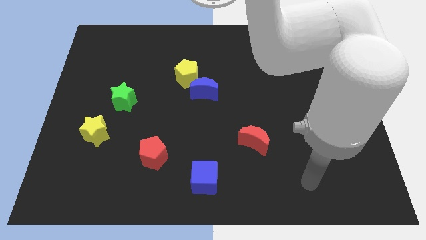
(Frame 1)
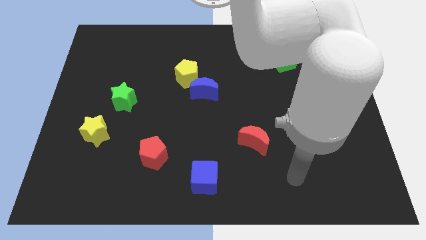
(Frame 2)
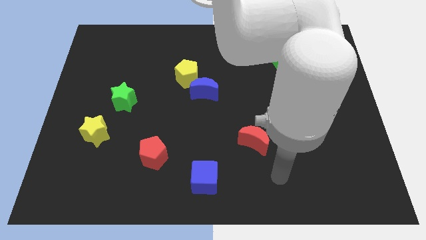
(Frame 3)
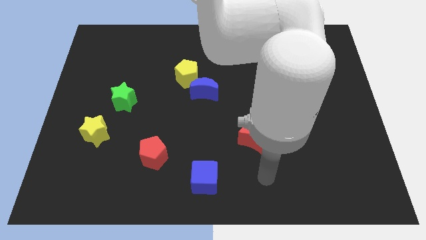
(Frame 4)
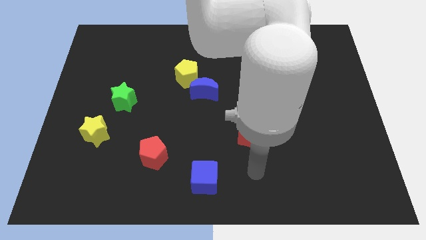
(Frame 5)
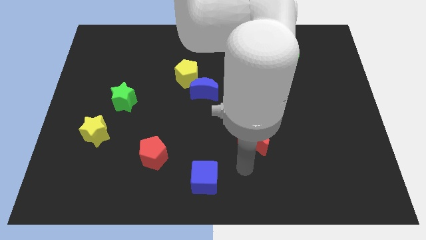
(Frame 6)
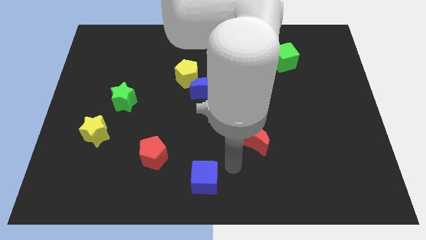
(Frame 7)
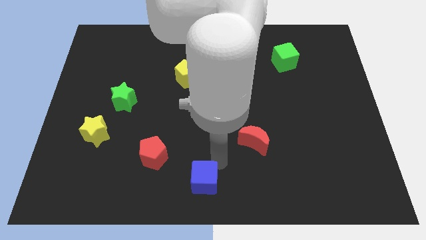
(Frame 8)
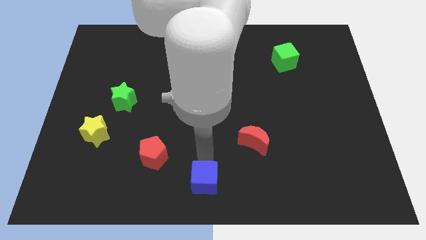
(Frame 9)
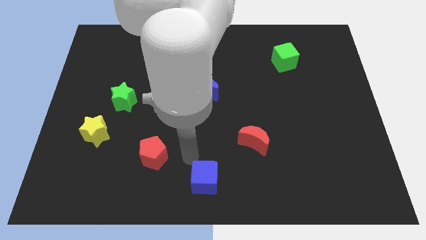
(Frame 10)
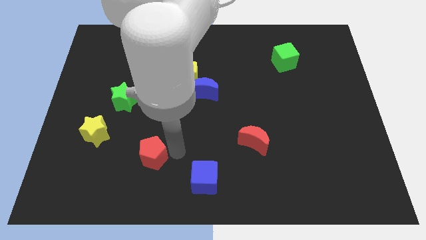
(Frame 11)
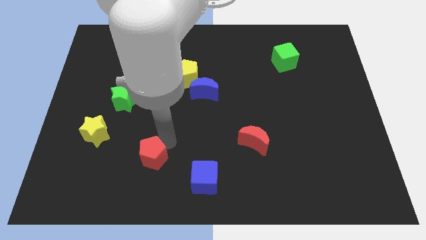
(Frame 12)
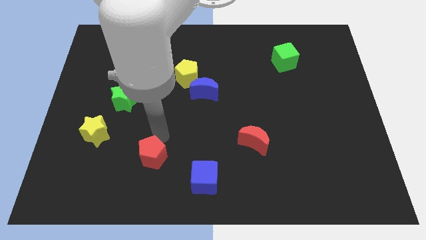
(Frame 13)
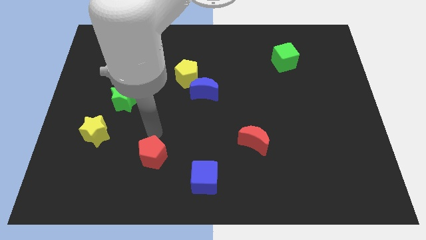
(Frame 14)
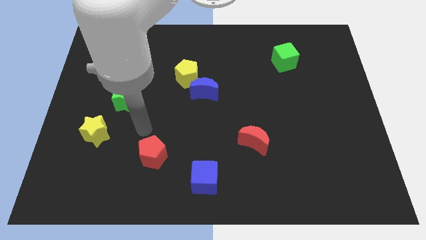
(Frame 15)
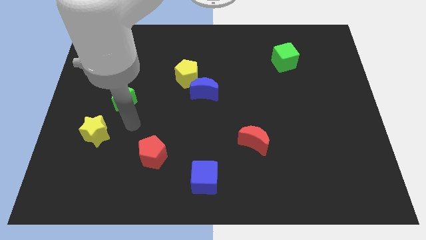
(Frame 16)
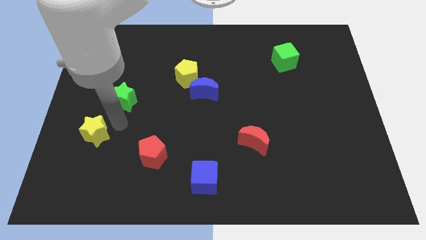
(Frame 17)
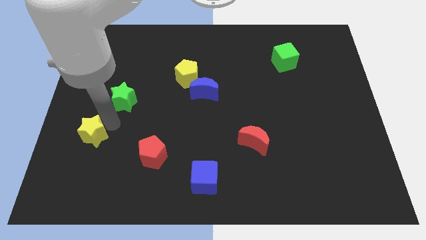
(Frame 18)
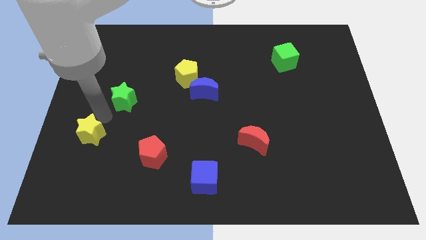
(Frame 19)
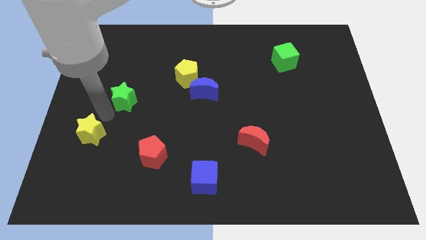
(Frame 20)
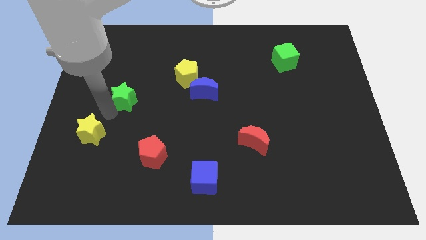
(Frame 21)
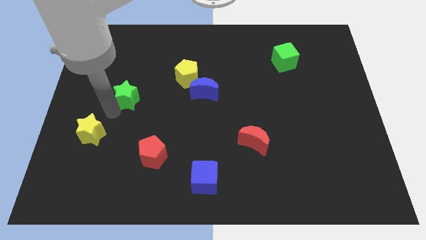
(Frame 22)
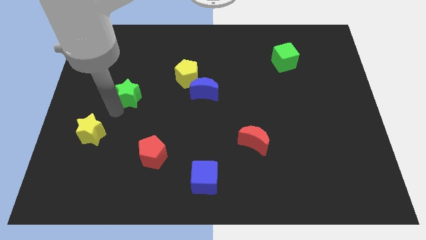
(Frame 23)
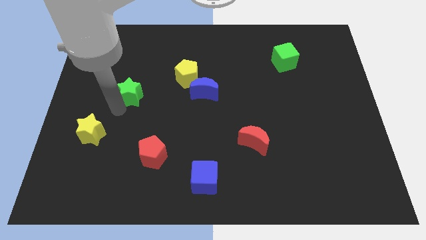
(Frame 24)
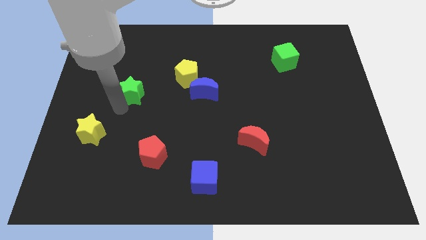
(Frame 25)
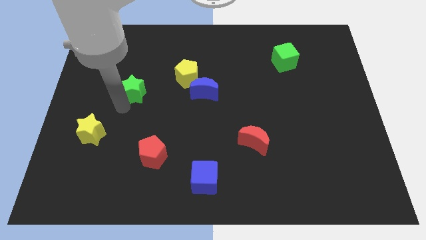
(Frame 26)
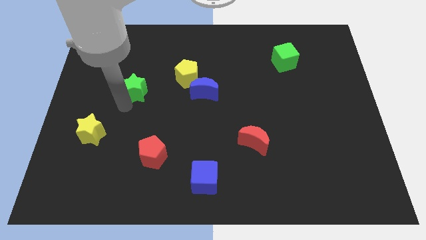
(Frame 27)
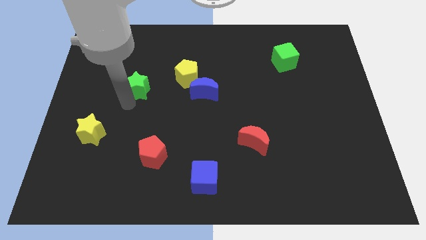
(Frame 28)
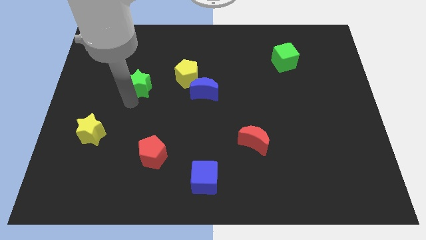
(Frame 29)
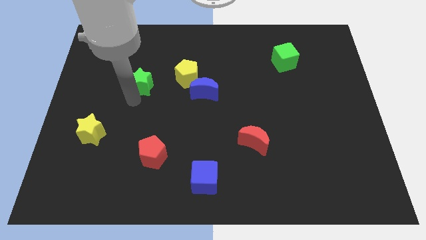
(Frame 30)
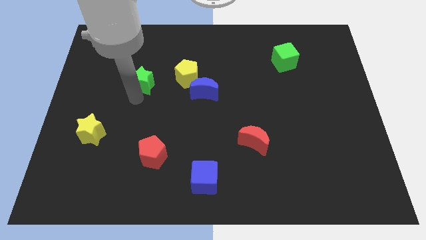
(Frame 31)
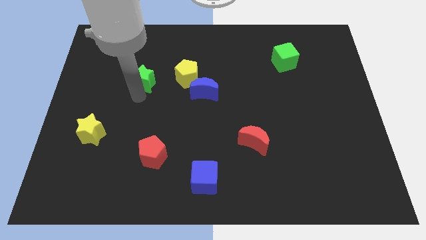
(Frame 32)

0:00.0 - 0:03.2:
push the green star diagonally up and to the right somewhat

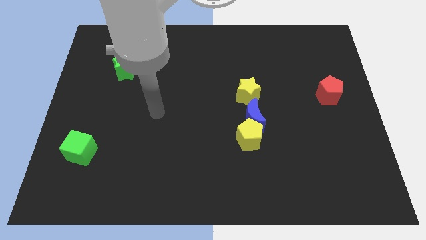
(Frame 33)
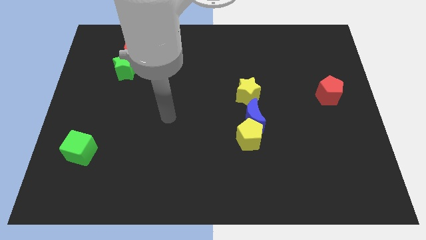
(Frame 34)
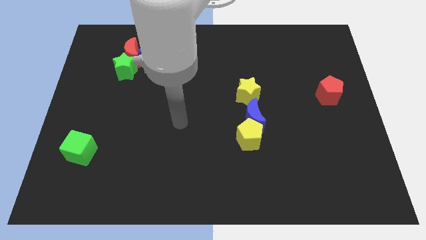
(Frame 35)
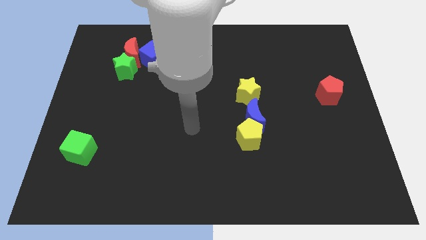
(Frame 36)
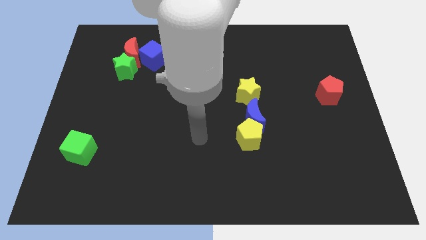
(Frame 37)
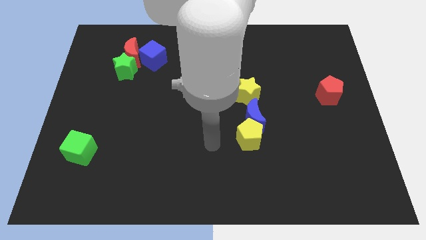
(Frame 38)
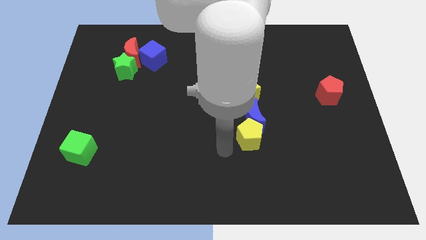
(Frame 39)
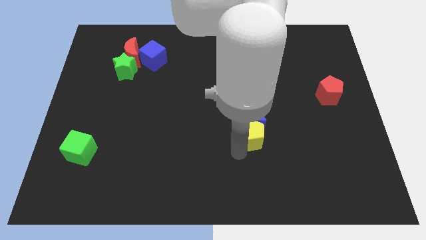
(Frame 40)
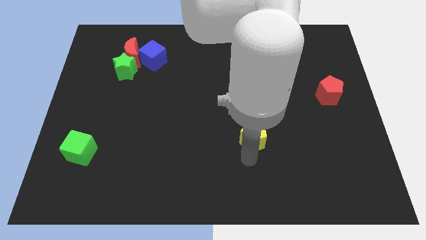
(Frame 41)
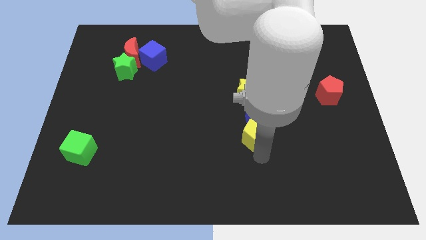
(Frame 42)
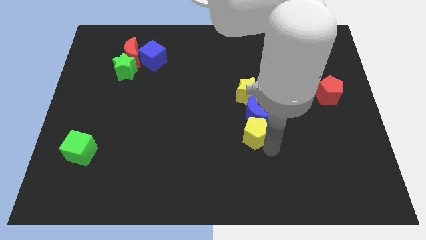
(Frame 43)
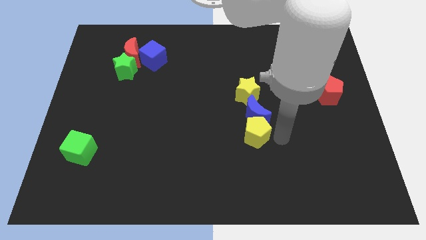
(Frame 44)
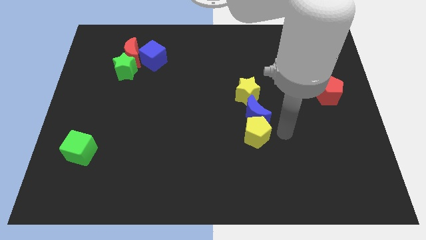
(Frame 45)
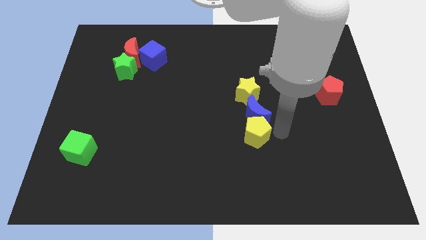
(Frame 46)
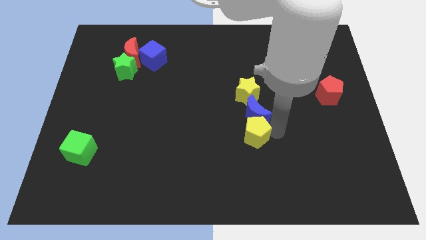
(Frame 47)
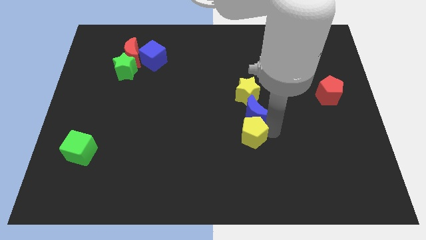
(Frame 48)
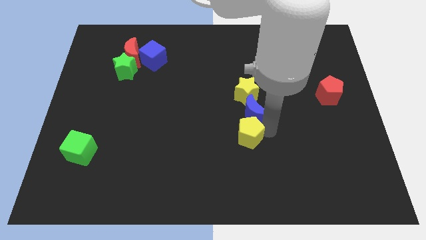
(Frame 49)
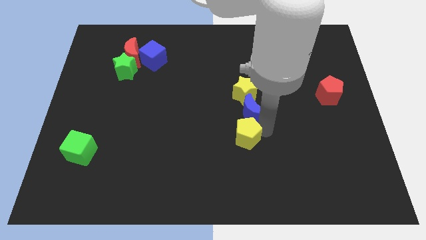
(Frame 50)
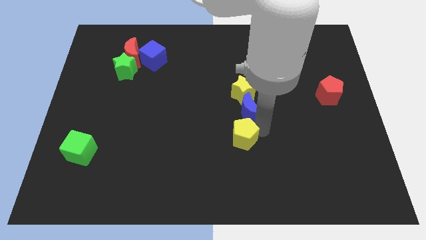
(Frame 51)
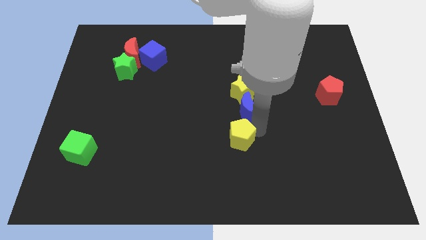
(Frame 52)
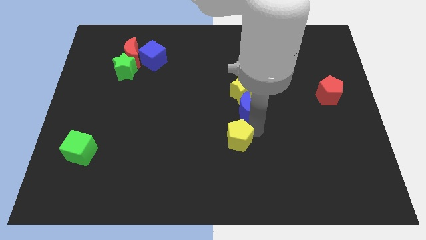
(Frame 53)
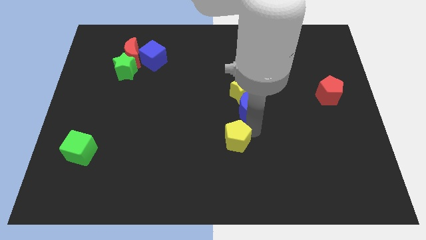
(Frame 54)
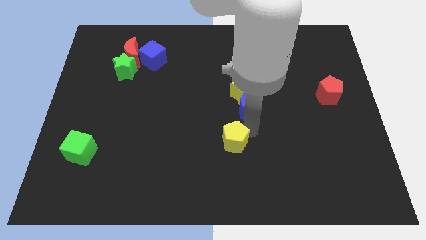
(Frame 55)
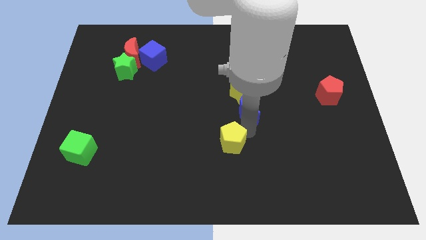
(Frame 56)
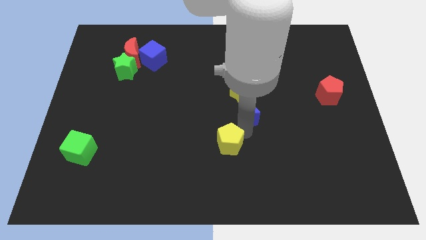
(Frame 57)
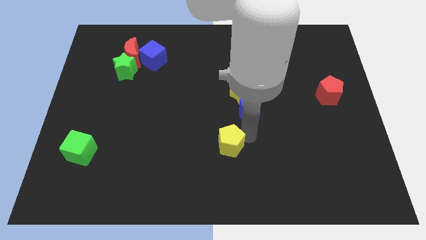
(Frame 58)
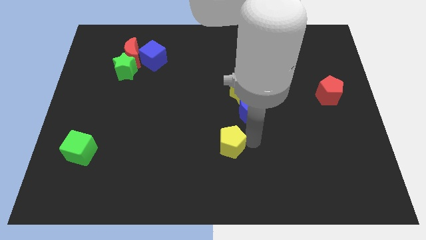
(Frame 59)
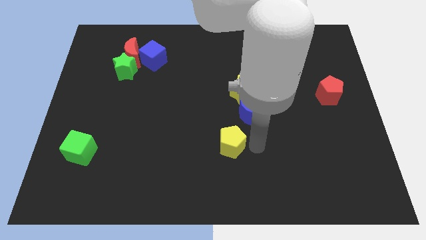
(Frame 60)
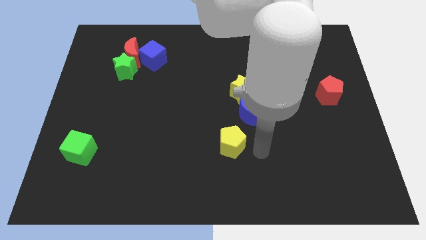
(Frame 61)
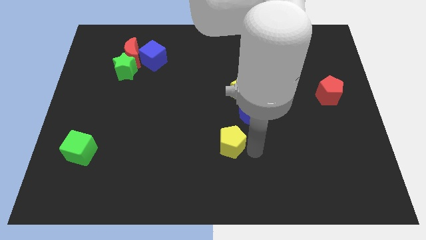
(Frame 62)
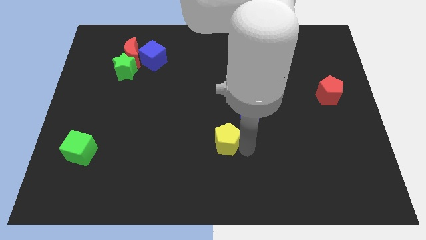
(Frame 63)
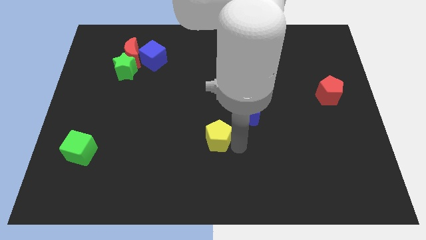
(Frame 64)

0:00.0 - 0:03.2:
slightly push the yellow pentagon to the left

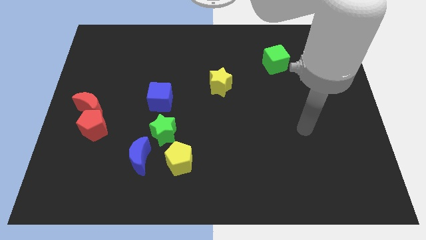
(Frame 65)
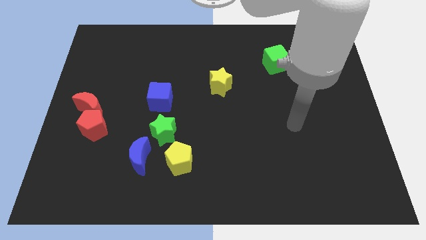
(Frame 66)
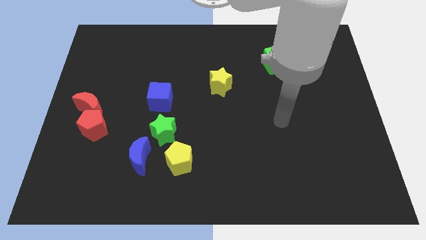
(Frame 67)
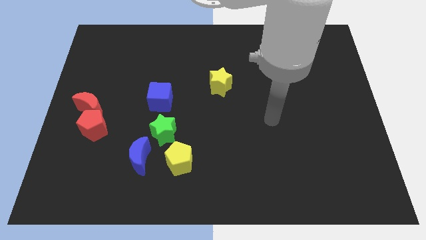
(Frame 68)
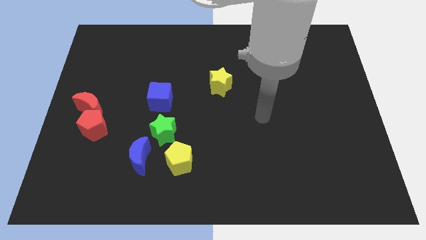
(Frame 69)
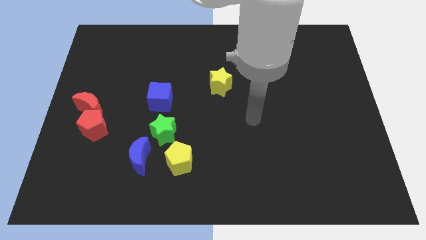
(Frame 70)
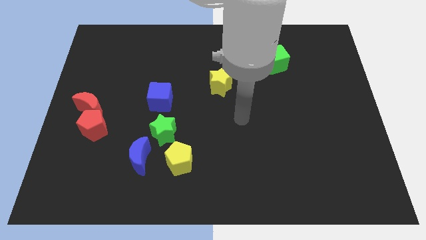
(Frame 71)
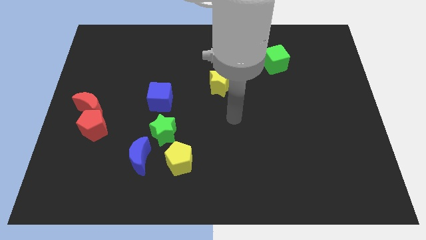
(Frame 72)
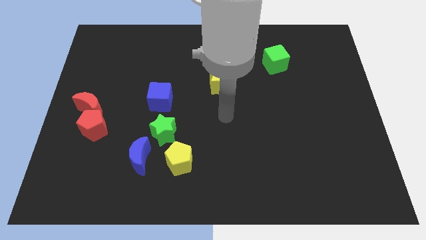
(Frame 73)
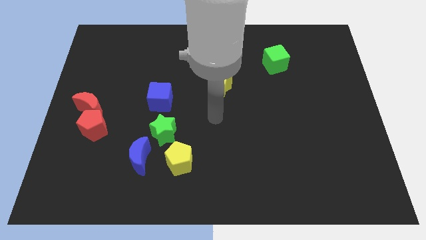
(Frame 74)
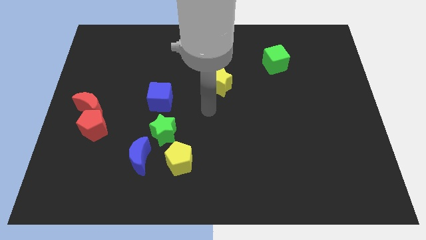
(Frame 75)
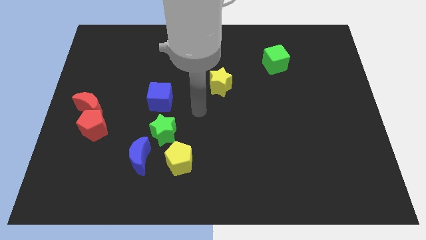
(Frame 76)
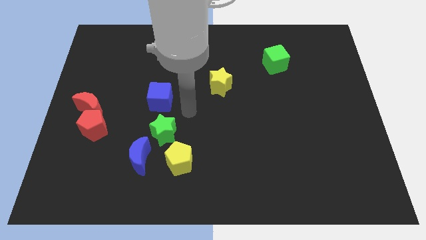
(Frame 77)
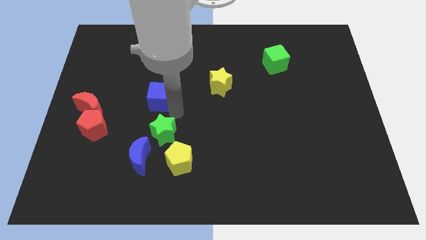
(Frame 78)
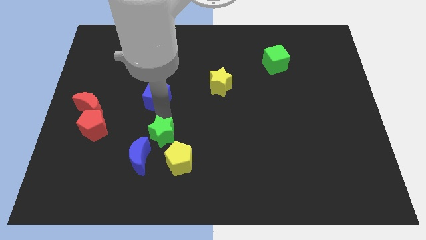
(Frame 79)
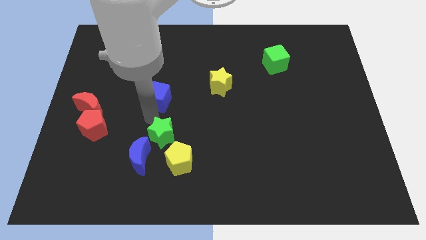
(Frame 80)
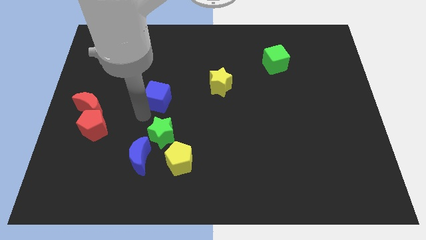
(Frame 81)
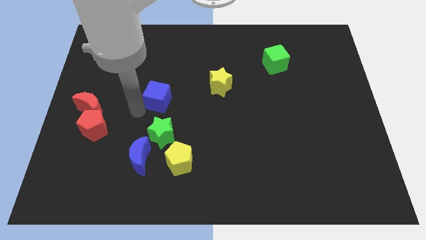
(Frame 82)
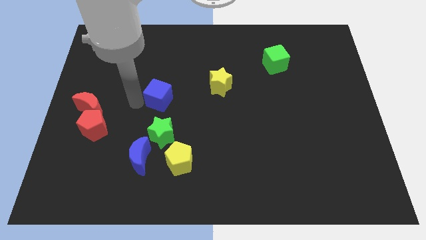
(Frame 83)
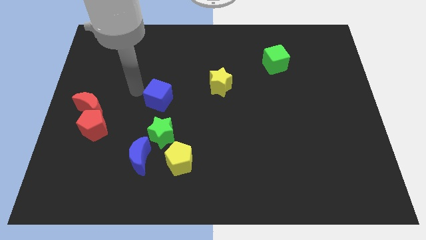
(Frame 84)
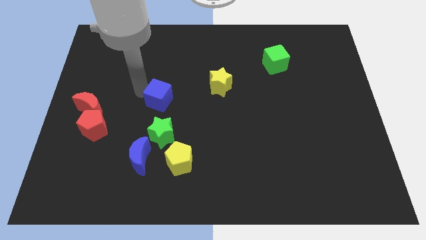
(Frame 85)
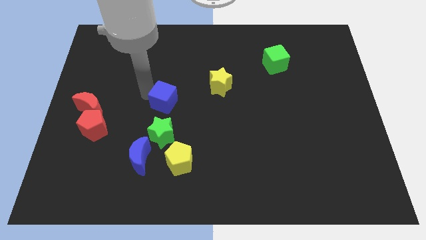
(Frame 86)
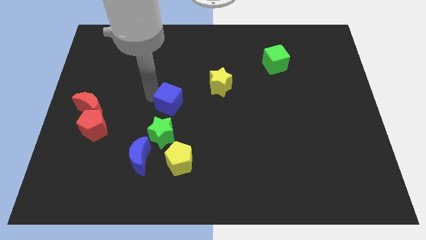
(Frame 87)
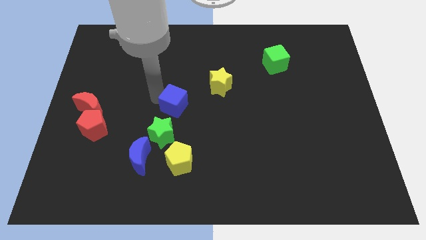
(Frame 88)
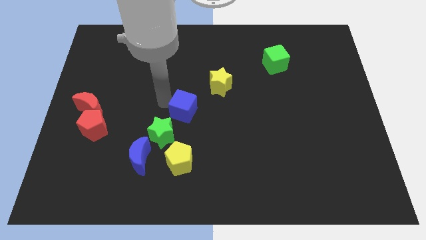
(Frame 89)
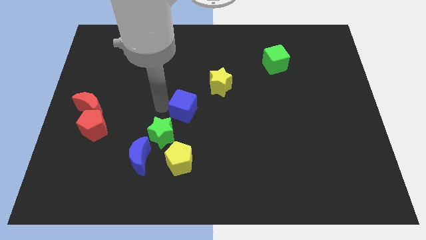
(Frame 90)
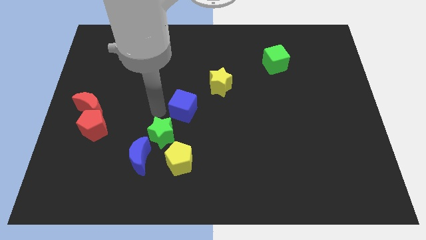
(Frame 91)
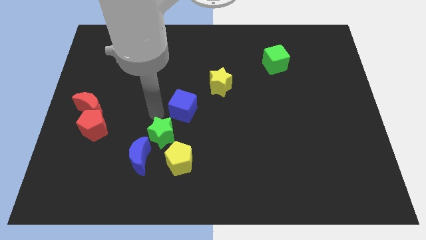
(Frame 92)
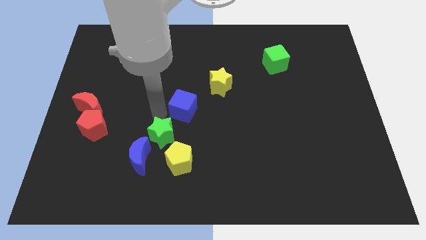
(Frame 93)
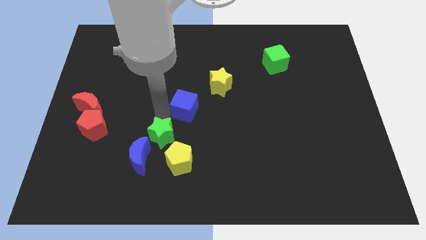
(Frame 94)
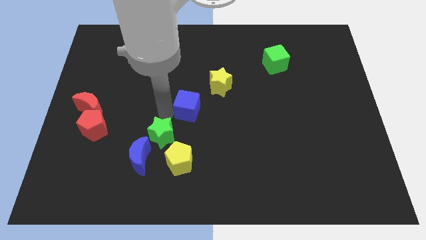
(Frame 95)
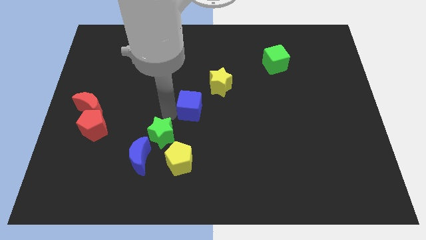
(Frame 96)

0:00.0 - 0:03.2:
move the blue cube a little right
